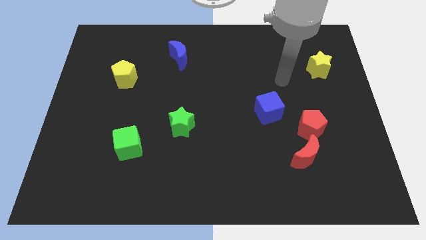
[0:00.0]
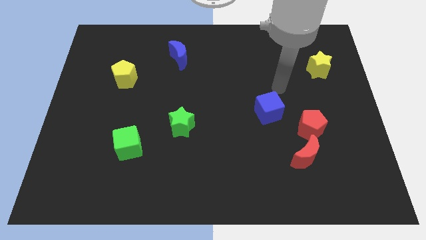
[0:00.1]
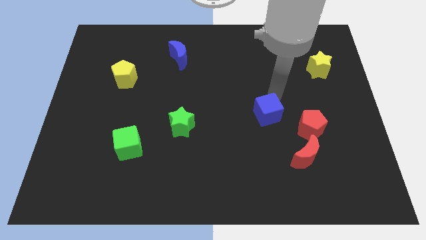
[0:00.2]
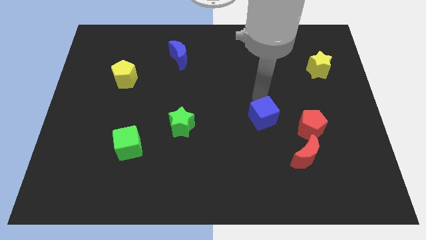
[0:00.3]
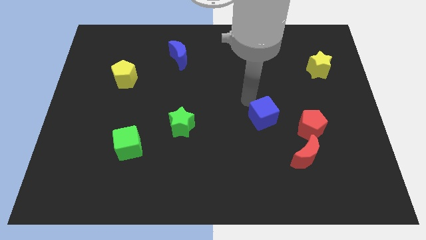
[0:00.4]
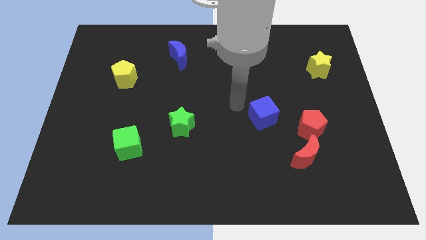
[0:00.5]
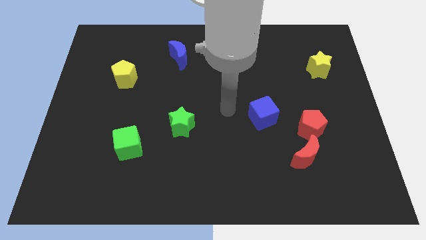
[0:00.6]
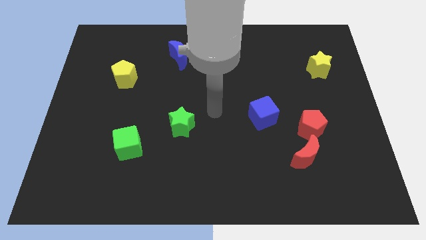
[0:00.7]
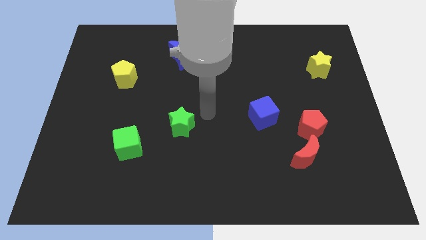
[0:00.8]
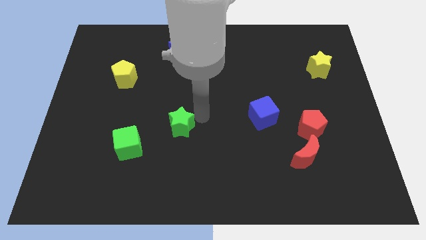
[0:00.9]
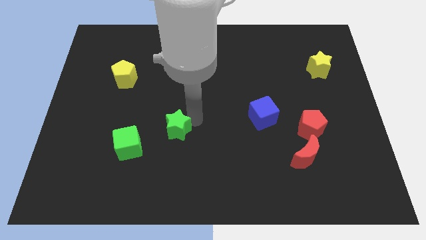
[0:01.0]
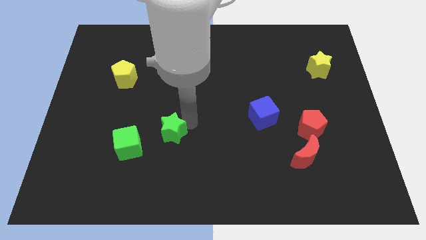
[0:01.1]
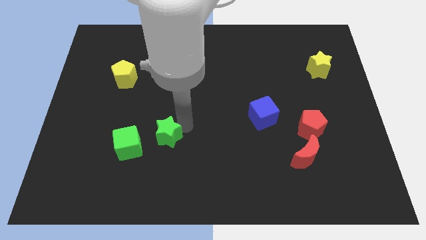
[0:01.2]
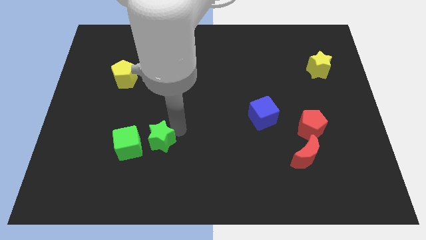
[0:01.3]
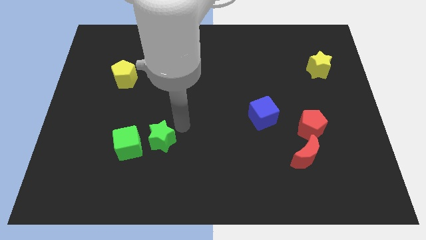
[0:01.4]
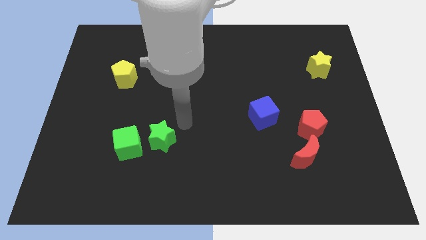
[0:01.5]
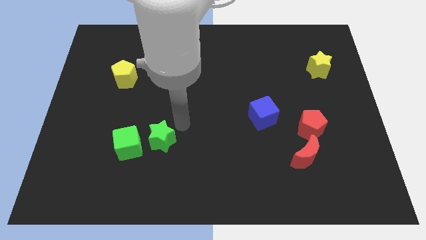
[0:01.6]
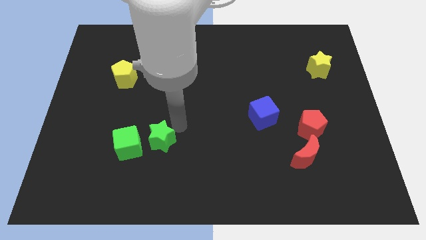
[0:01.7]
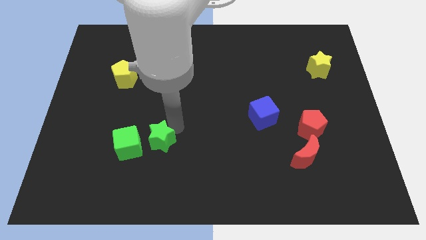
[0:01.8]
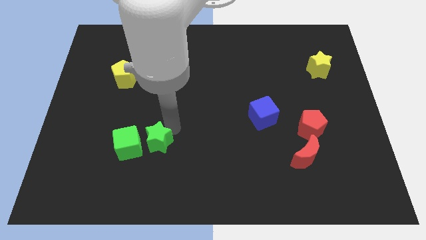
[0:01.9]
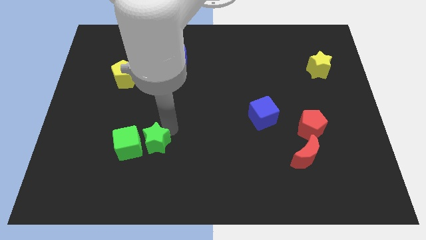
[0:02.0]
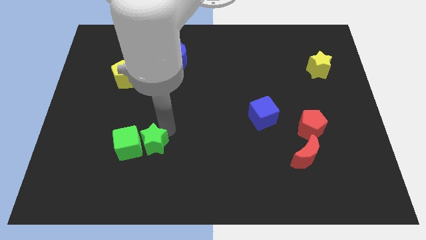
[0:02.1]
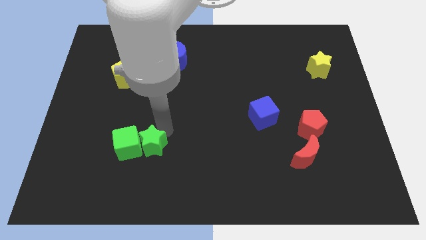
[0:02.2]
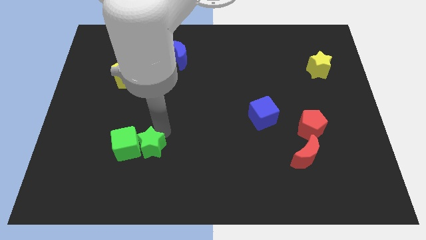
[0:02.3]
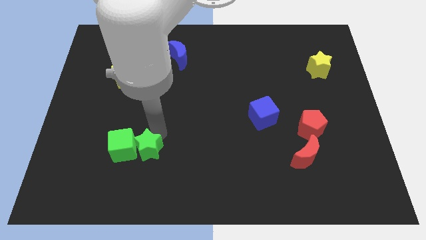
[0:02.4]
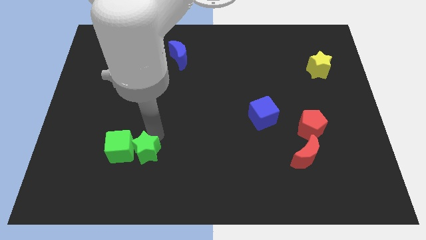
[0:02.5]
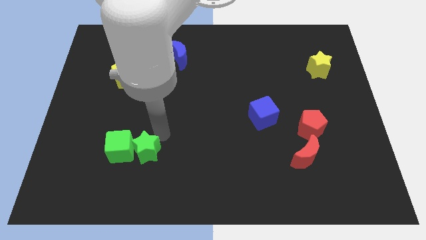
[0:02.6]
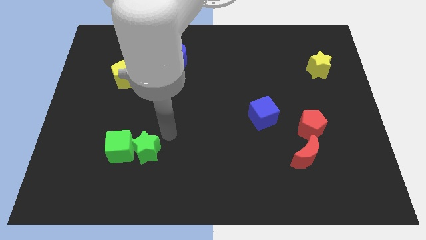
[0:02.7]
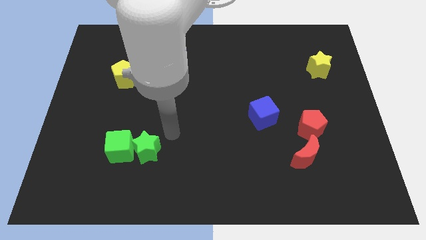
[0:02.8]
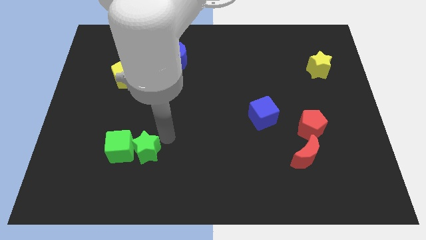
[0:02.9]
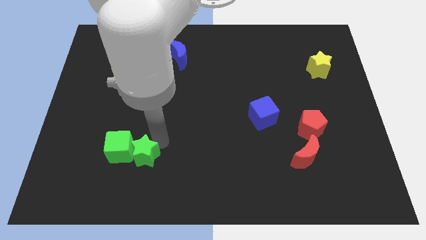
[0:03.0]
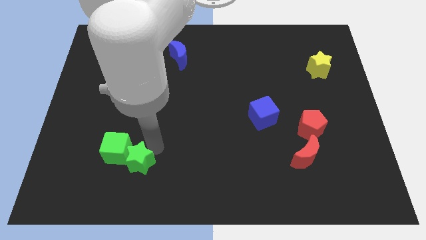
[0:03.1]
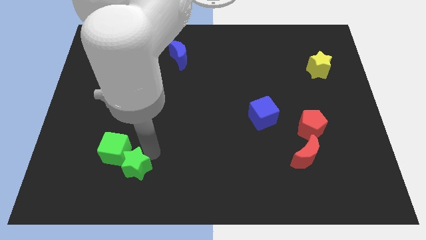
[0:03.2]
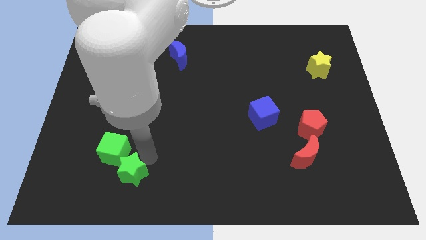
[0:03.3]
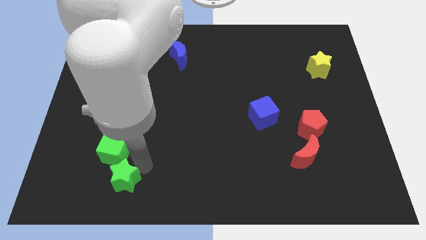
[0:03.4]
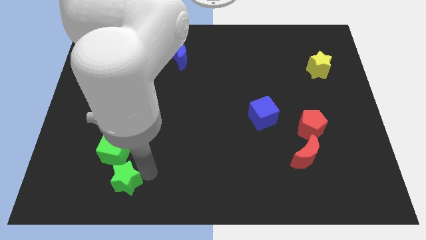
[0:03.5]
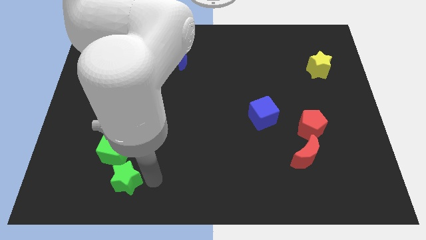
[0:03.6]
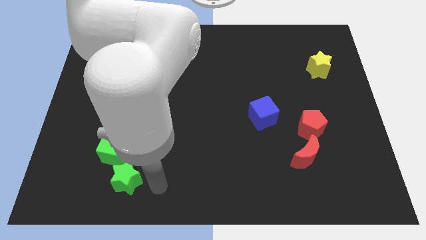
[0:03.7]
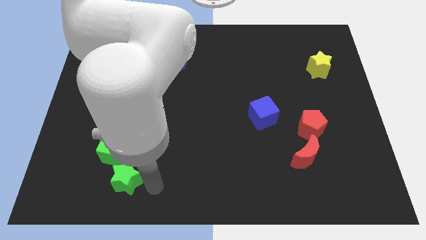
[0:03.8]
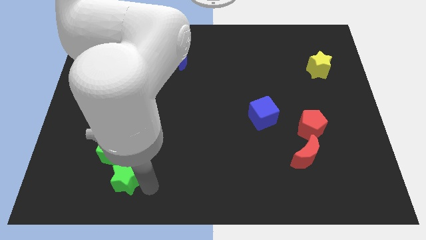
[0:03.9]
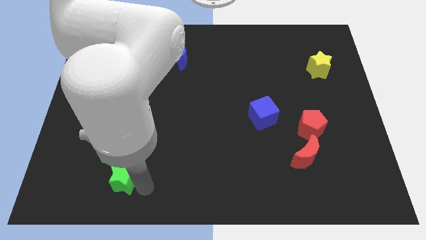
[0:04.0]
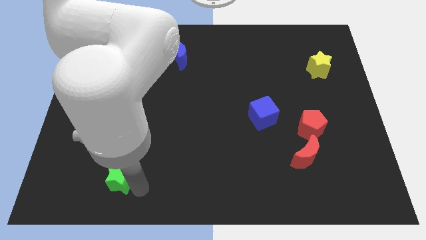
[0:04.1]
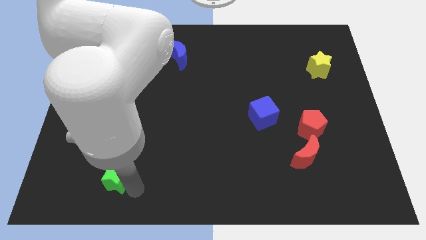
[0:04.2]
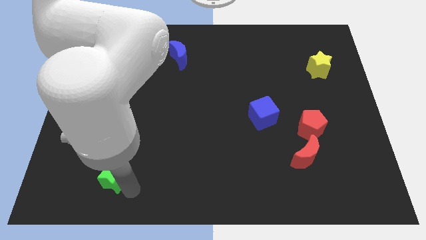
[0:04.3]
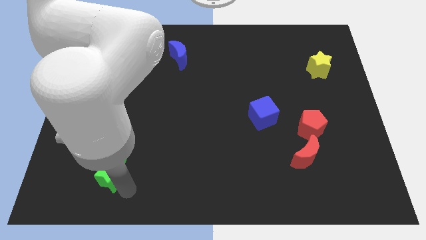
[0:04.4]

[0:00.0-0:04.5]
move the green star diagonally down and to the left of the green cube

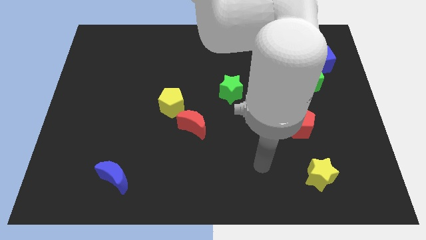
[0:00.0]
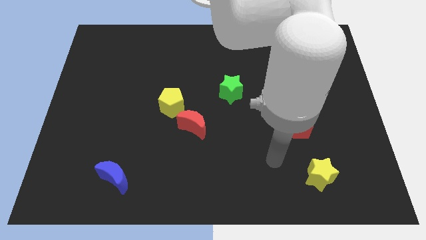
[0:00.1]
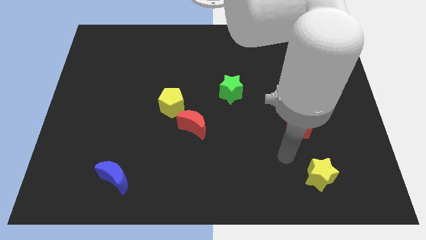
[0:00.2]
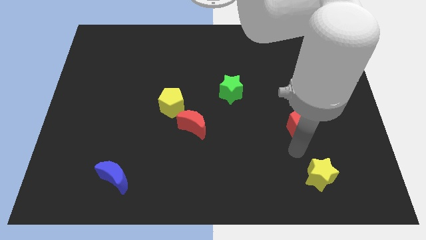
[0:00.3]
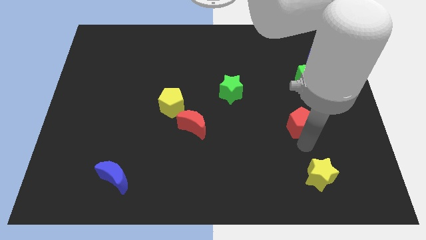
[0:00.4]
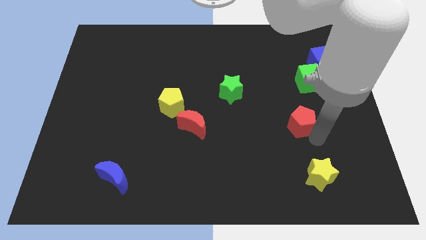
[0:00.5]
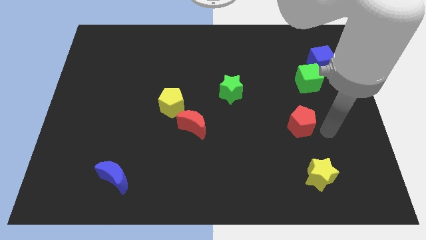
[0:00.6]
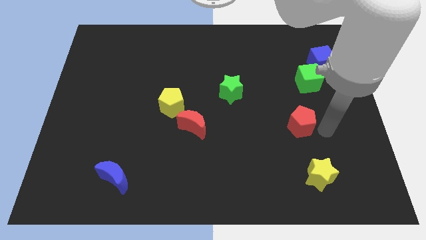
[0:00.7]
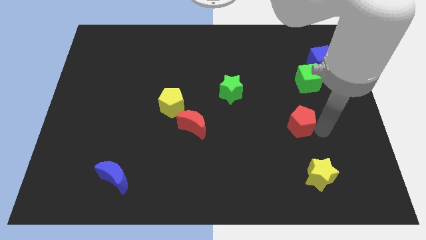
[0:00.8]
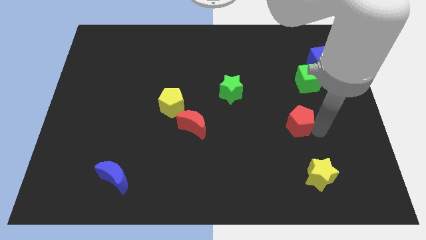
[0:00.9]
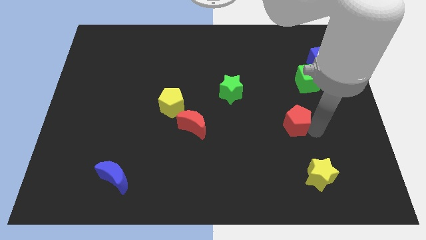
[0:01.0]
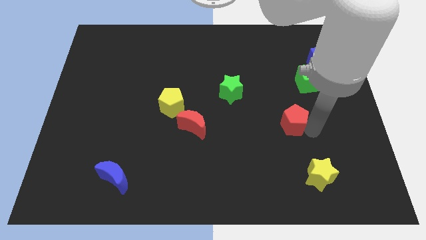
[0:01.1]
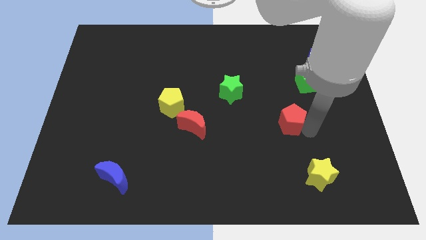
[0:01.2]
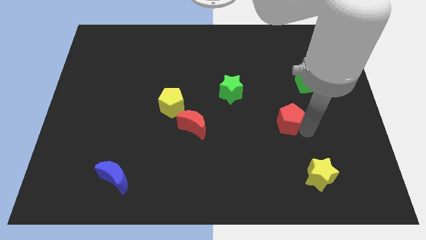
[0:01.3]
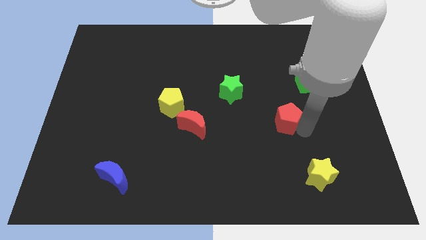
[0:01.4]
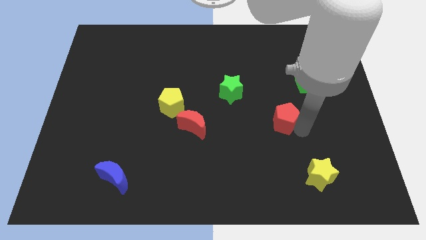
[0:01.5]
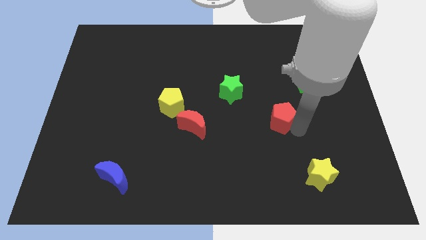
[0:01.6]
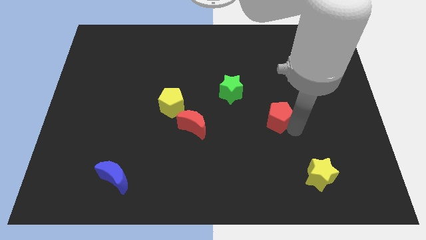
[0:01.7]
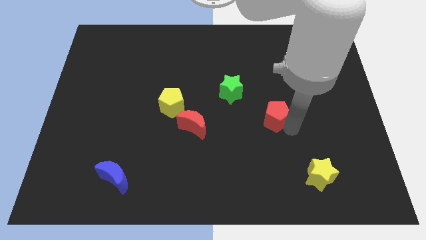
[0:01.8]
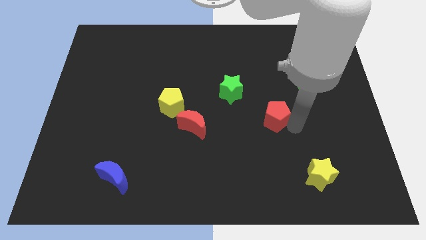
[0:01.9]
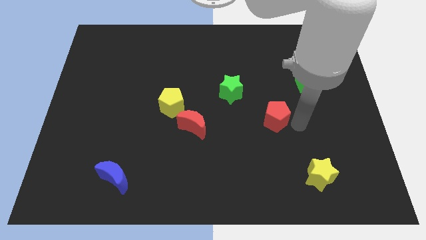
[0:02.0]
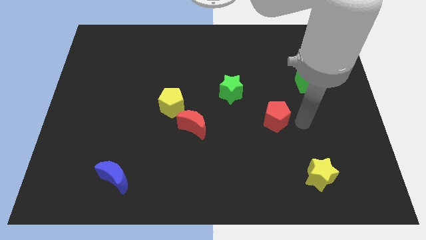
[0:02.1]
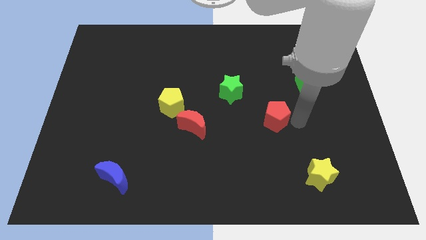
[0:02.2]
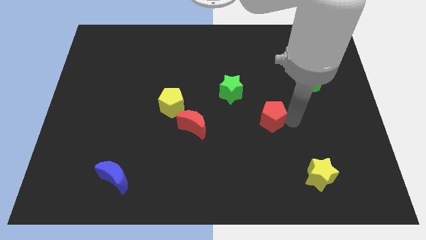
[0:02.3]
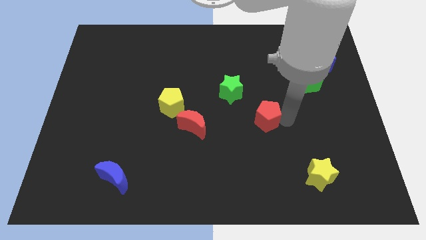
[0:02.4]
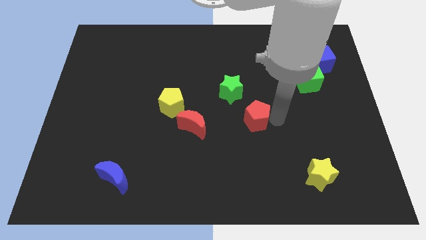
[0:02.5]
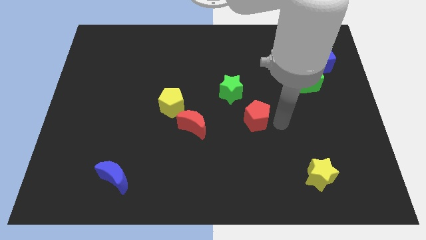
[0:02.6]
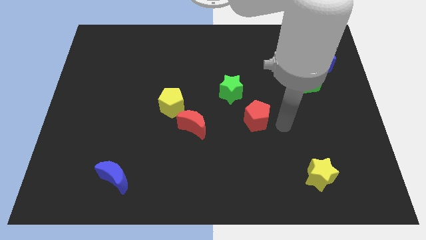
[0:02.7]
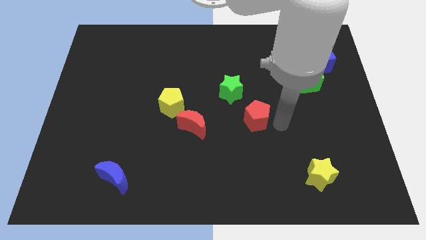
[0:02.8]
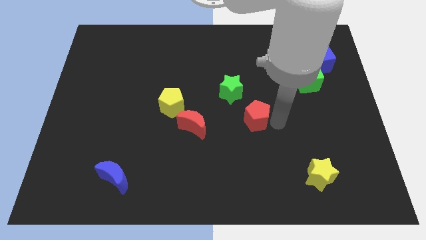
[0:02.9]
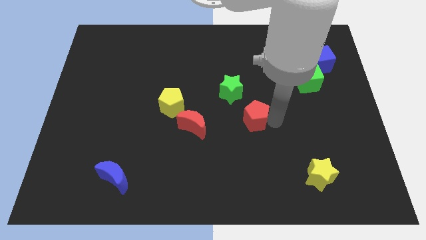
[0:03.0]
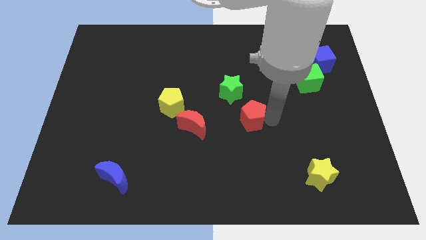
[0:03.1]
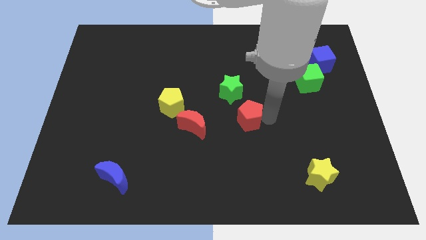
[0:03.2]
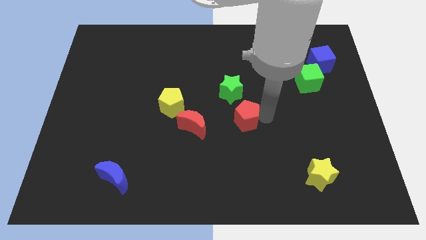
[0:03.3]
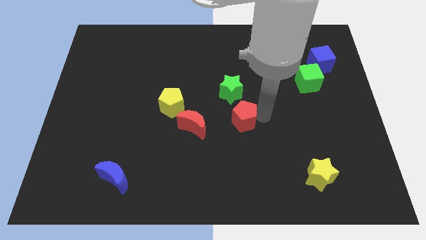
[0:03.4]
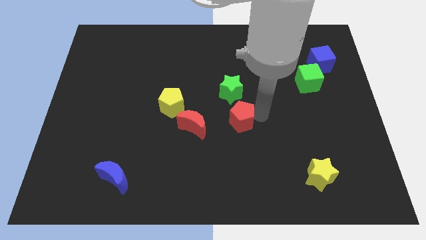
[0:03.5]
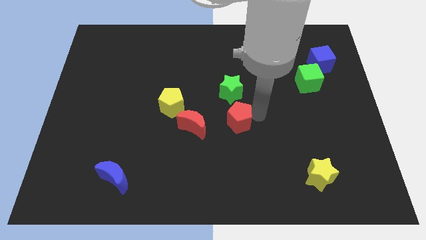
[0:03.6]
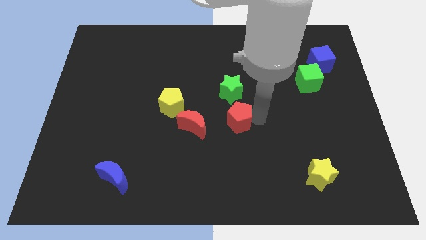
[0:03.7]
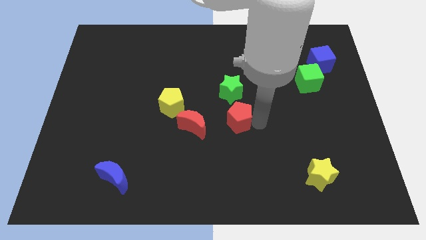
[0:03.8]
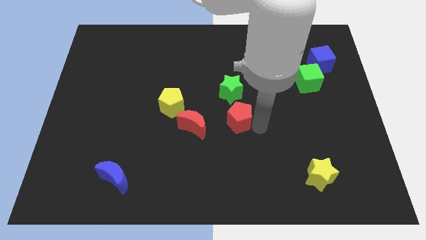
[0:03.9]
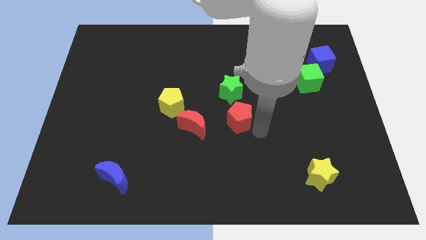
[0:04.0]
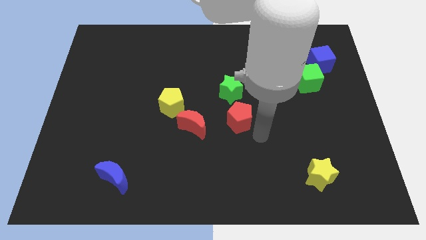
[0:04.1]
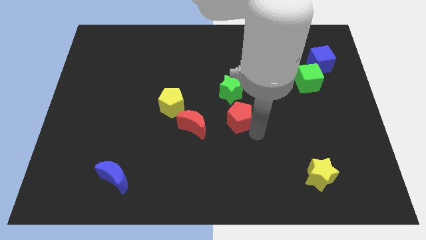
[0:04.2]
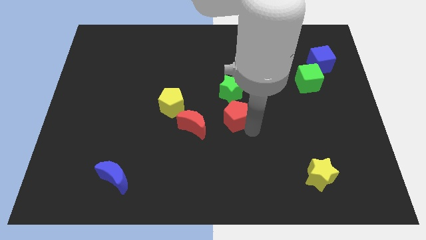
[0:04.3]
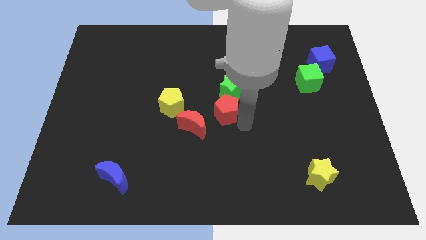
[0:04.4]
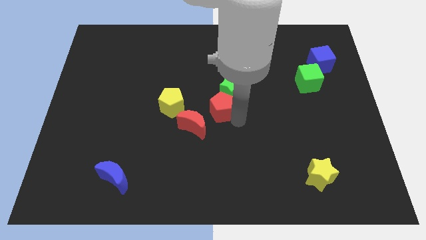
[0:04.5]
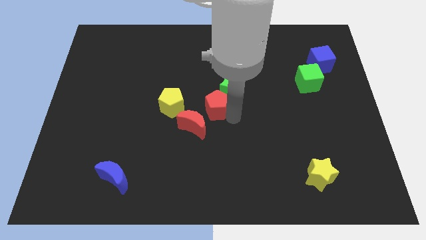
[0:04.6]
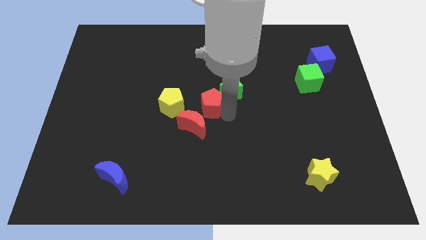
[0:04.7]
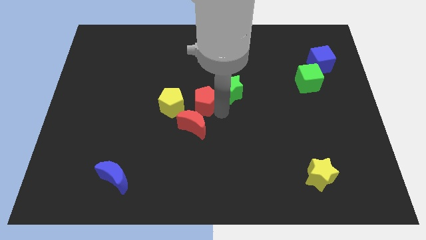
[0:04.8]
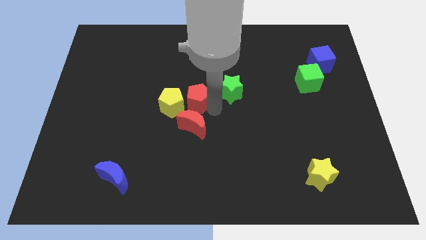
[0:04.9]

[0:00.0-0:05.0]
slide the red pentagon to the top right side of the yellow pentagon
